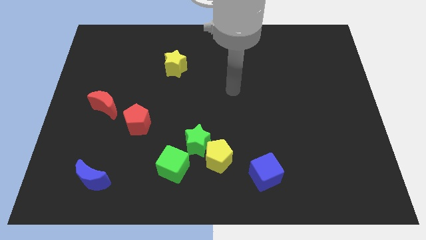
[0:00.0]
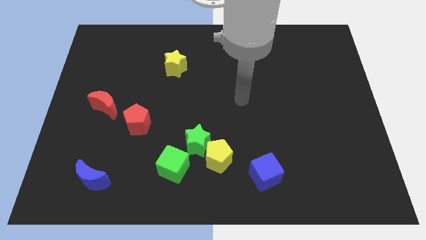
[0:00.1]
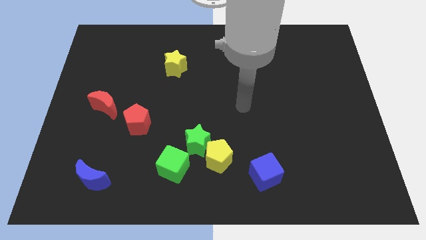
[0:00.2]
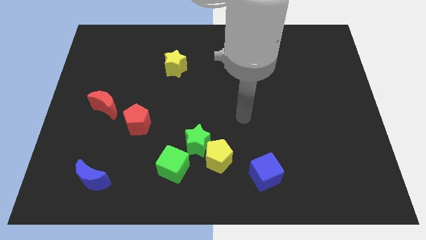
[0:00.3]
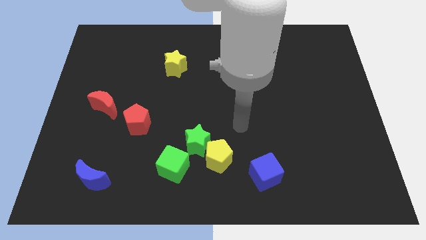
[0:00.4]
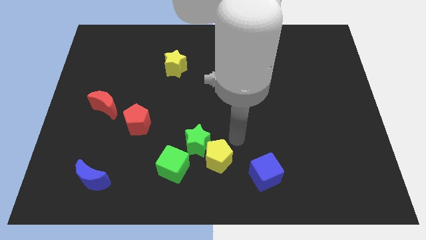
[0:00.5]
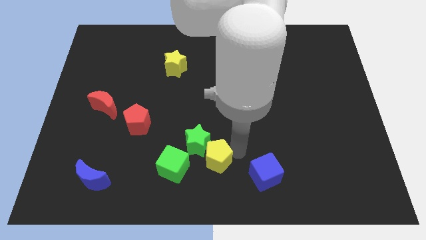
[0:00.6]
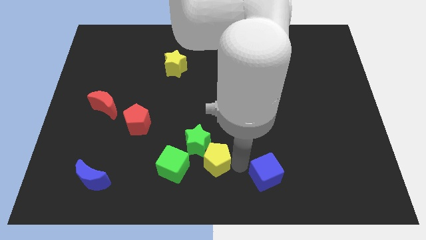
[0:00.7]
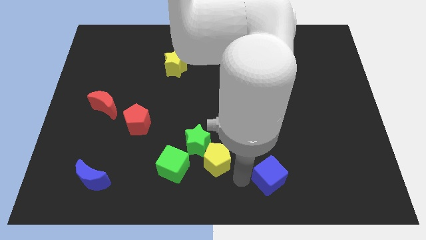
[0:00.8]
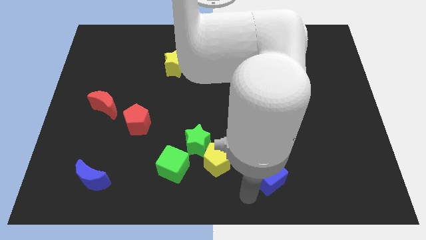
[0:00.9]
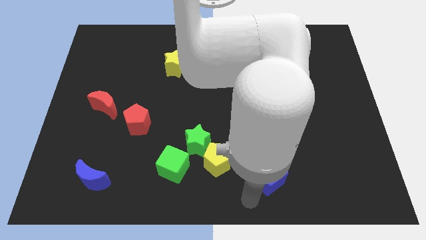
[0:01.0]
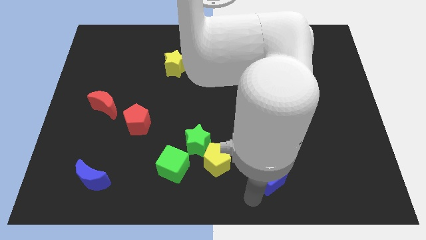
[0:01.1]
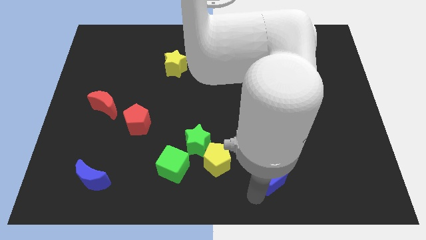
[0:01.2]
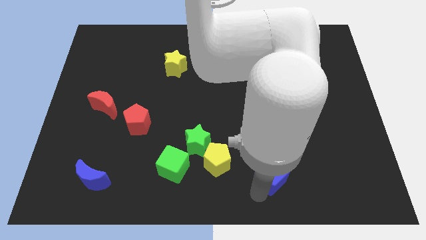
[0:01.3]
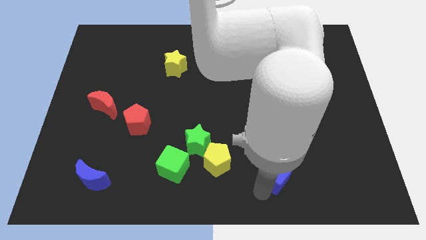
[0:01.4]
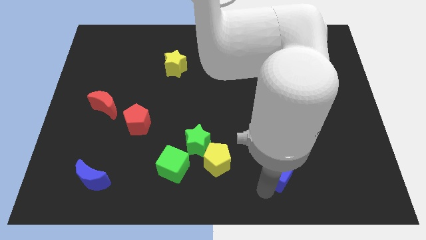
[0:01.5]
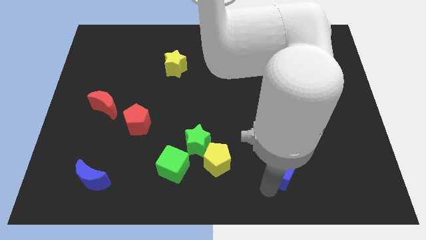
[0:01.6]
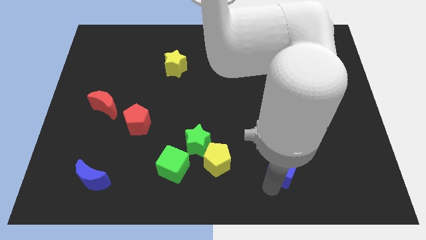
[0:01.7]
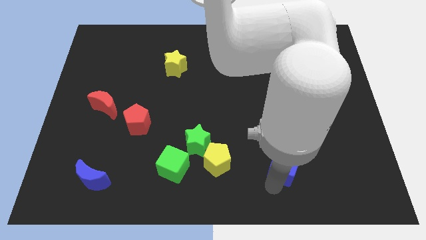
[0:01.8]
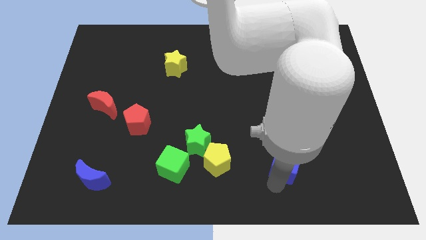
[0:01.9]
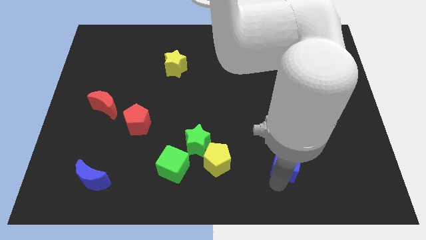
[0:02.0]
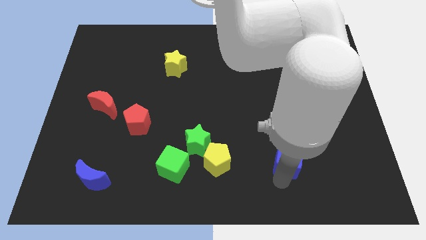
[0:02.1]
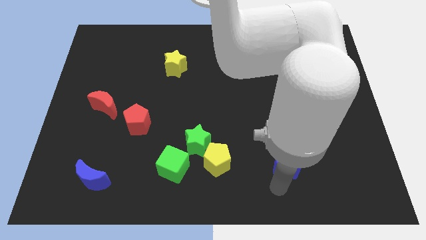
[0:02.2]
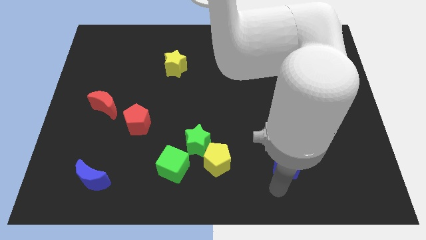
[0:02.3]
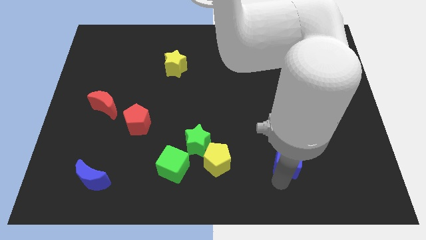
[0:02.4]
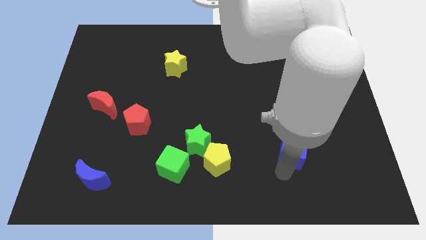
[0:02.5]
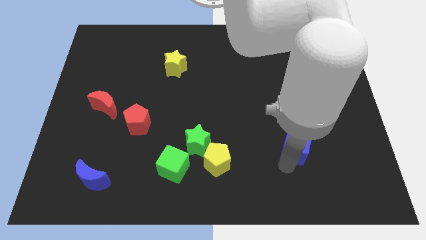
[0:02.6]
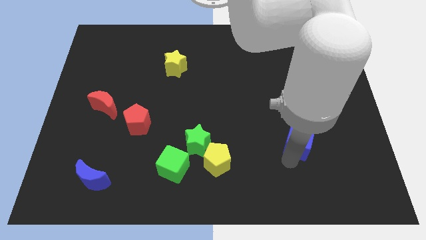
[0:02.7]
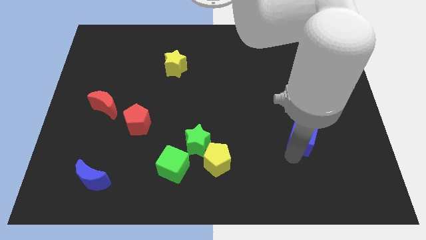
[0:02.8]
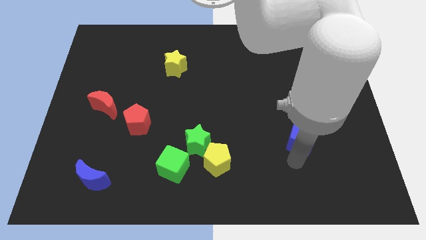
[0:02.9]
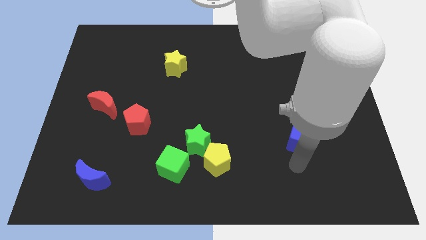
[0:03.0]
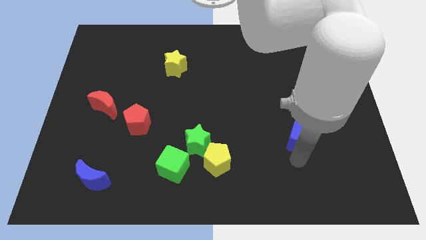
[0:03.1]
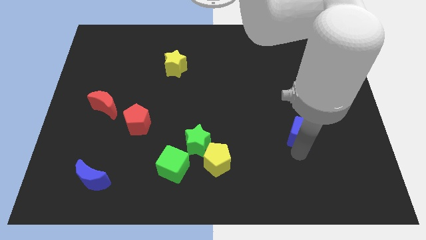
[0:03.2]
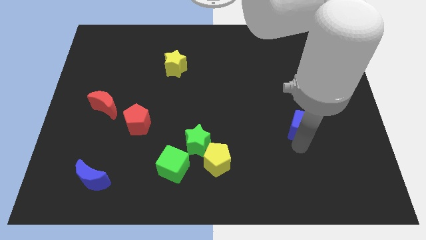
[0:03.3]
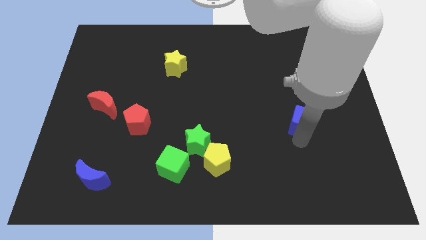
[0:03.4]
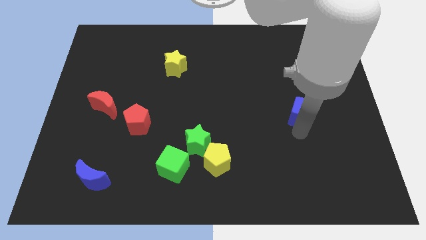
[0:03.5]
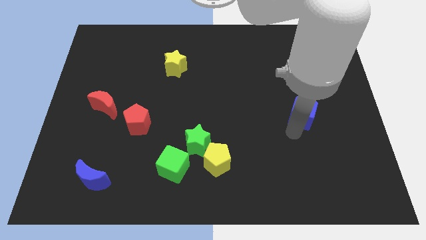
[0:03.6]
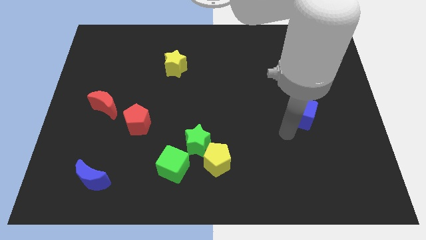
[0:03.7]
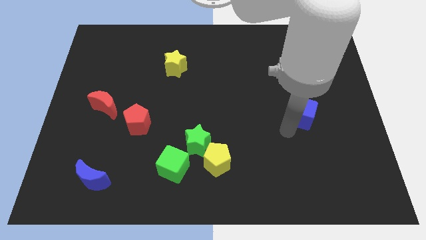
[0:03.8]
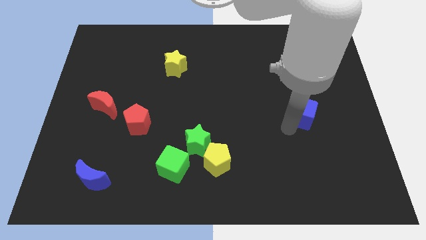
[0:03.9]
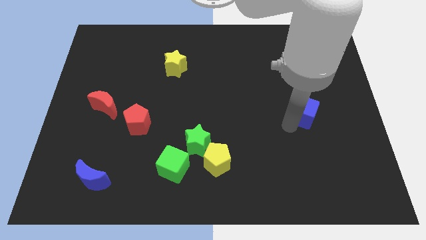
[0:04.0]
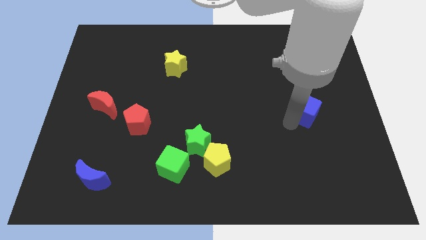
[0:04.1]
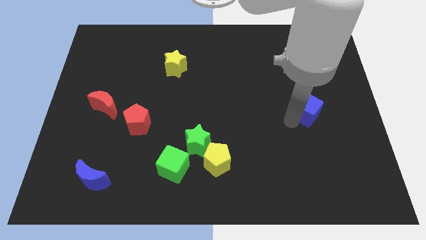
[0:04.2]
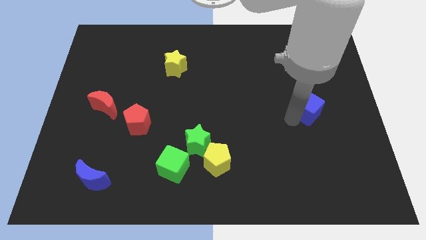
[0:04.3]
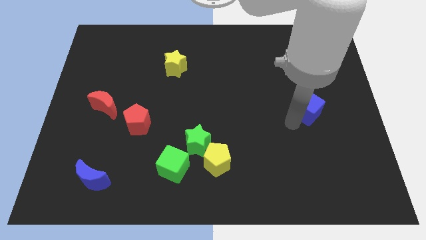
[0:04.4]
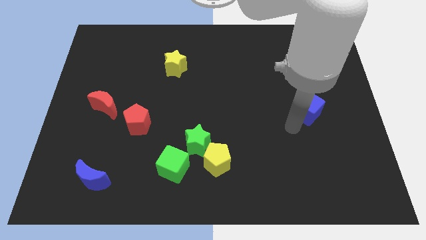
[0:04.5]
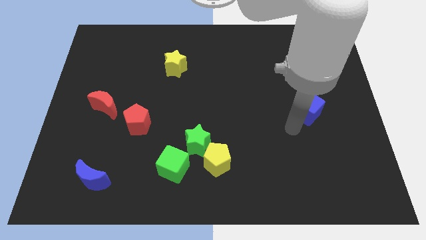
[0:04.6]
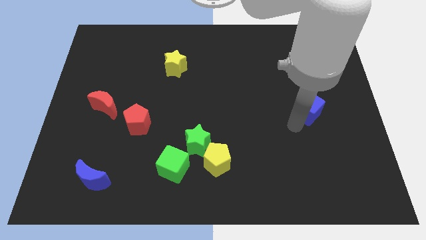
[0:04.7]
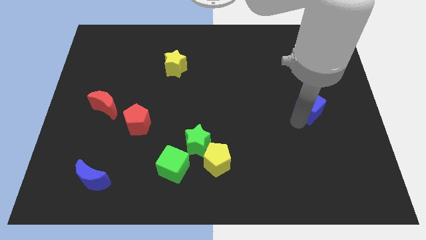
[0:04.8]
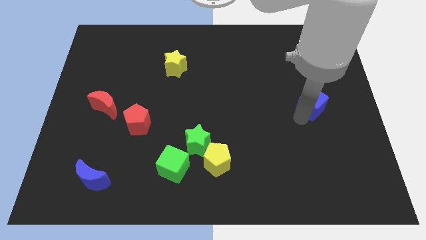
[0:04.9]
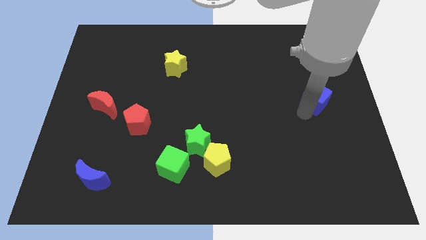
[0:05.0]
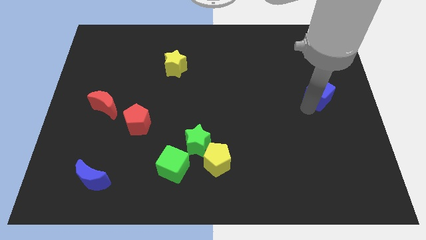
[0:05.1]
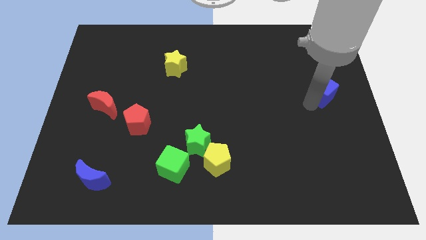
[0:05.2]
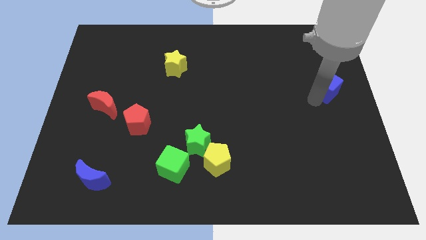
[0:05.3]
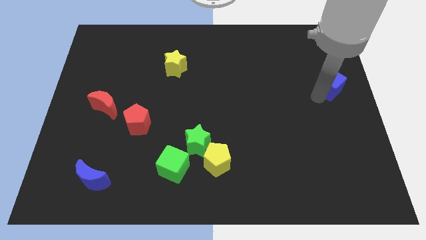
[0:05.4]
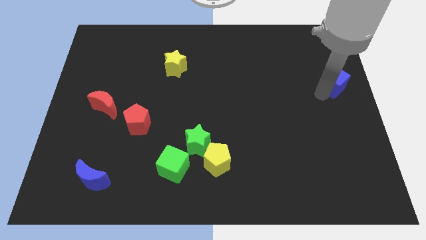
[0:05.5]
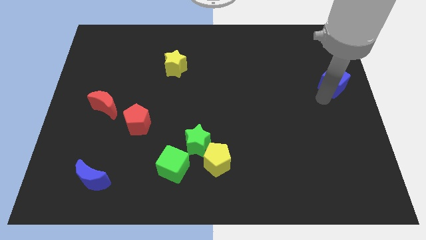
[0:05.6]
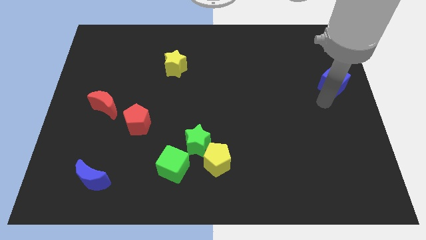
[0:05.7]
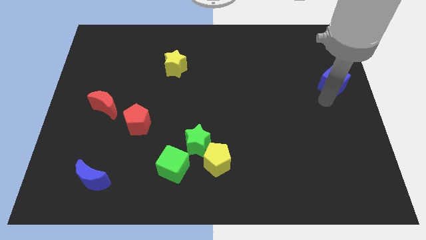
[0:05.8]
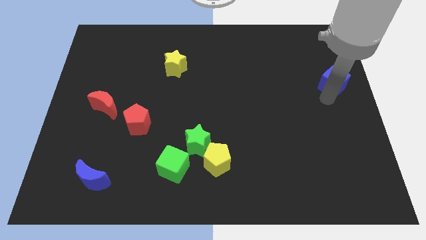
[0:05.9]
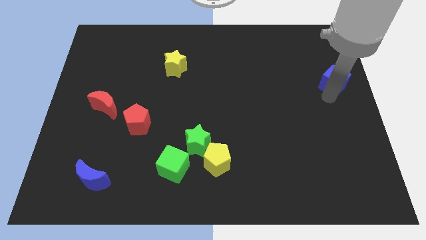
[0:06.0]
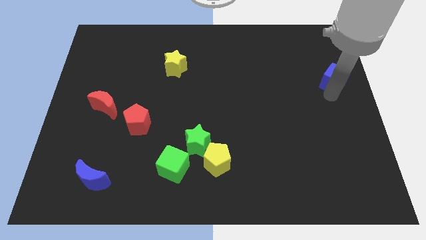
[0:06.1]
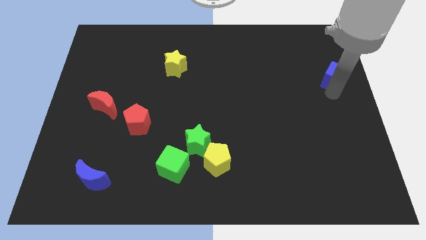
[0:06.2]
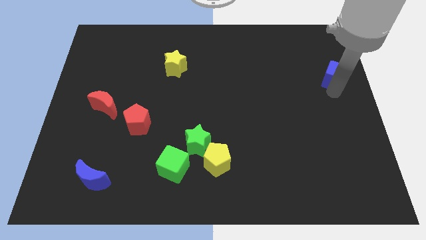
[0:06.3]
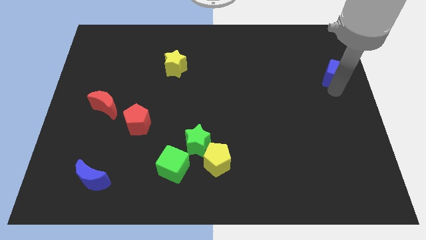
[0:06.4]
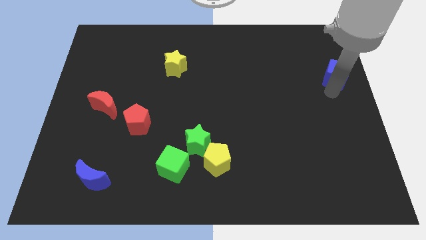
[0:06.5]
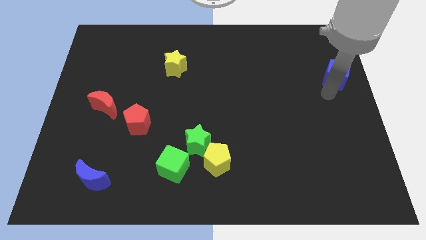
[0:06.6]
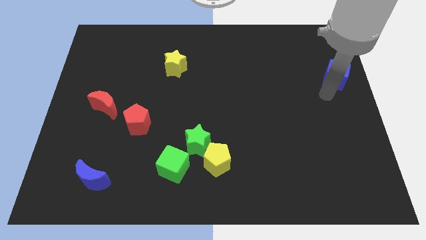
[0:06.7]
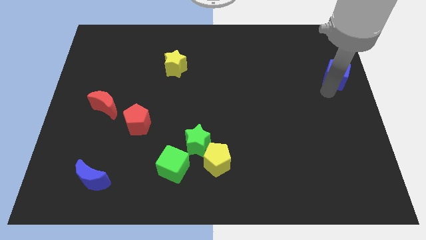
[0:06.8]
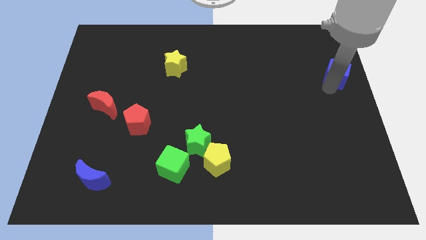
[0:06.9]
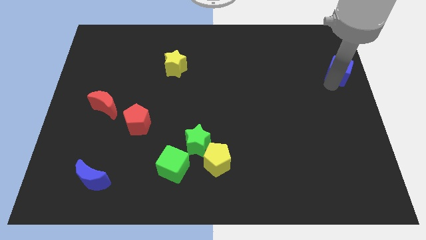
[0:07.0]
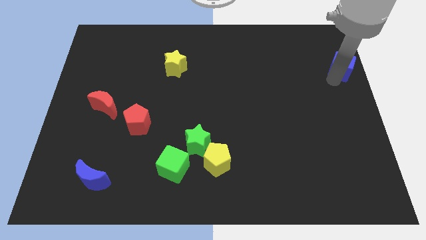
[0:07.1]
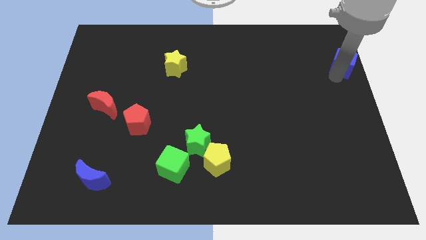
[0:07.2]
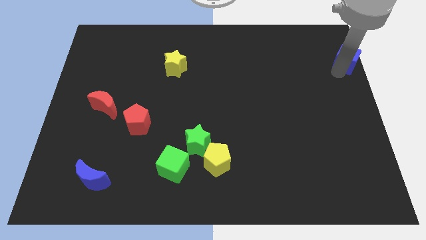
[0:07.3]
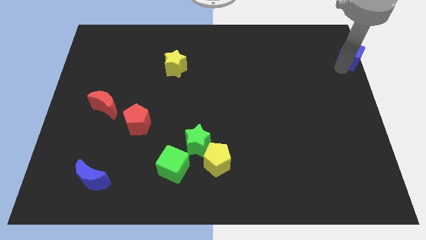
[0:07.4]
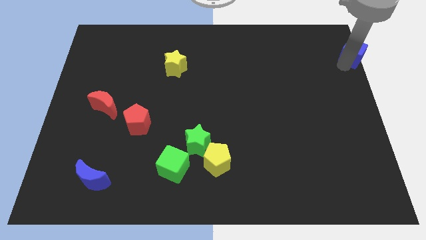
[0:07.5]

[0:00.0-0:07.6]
move the blue cube to the top right
